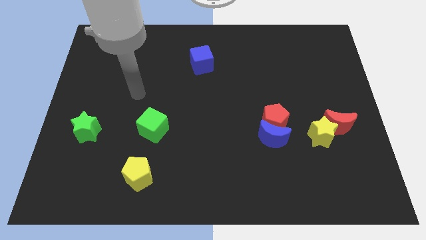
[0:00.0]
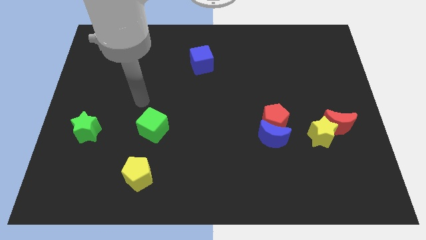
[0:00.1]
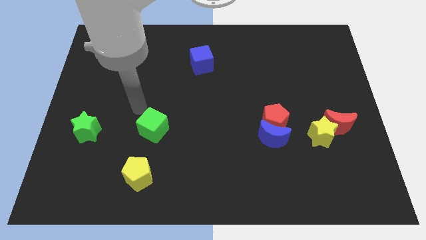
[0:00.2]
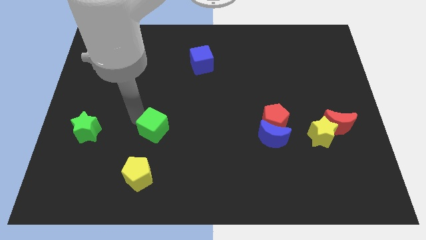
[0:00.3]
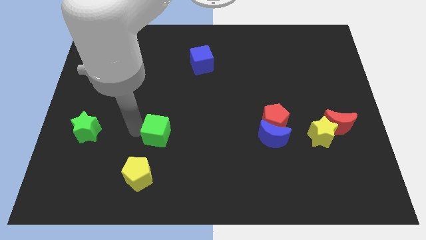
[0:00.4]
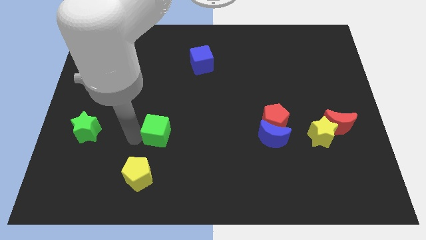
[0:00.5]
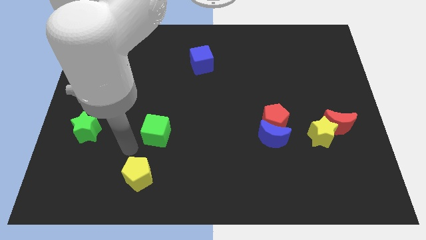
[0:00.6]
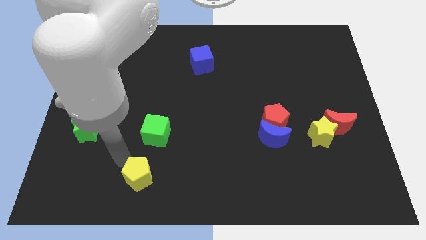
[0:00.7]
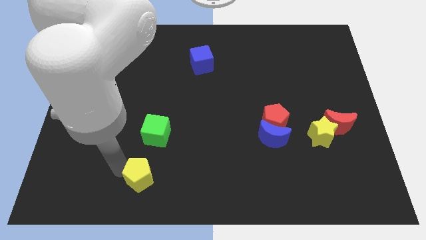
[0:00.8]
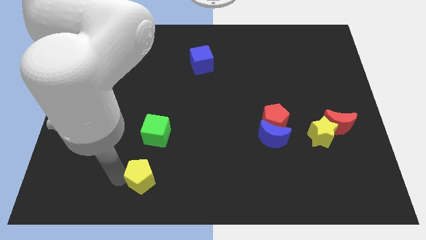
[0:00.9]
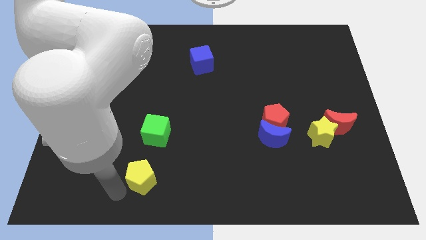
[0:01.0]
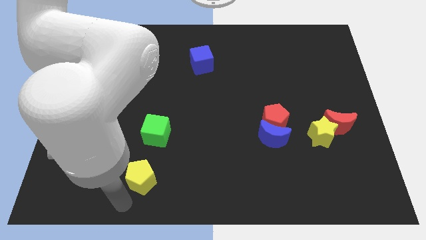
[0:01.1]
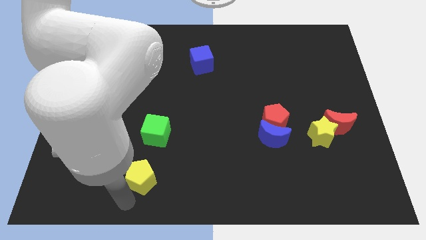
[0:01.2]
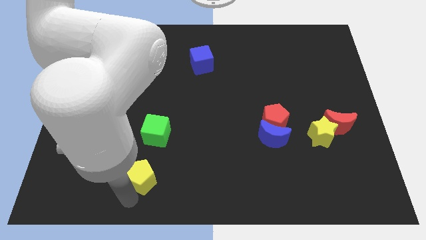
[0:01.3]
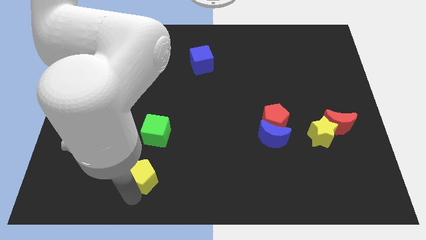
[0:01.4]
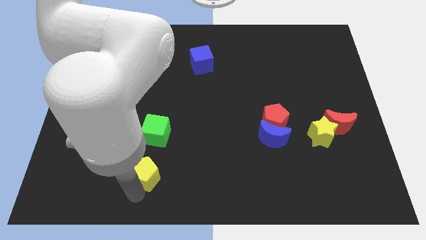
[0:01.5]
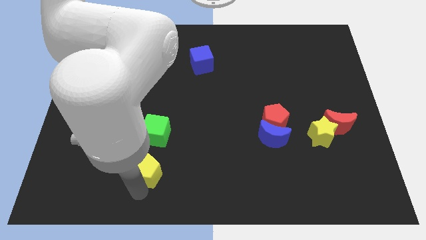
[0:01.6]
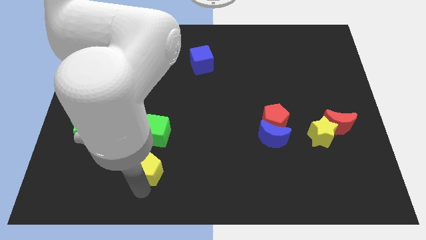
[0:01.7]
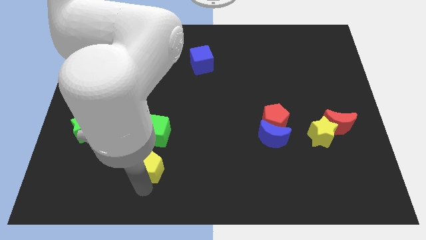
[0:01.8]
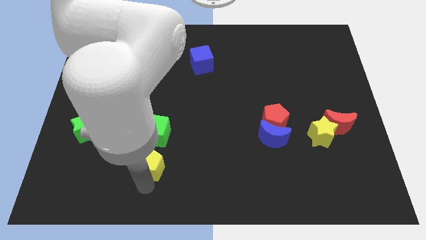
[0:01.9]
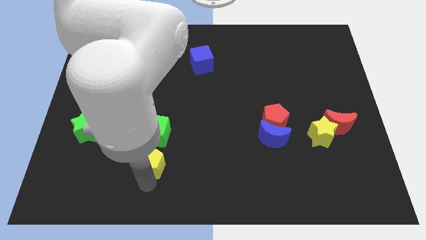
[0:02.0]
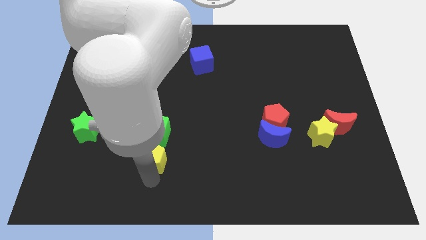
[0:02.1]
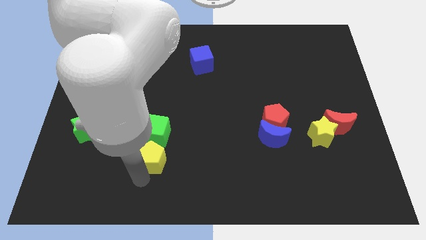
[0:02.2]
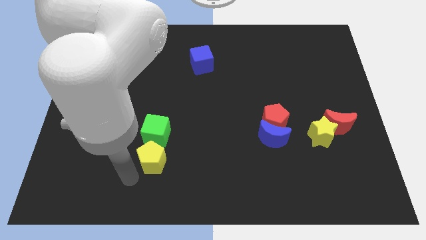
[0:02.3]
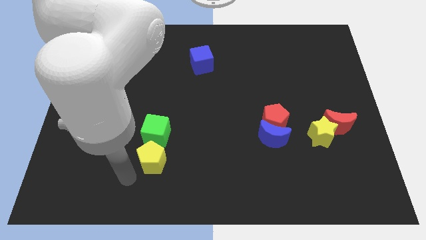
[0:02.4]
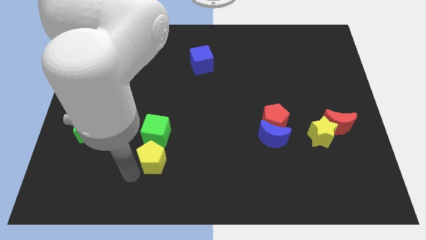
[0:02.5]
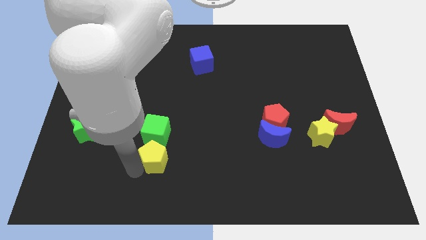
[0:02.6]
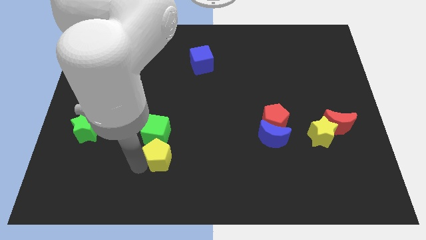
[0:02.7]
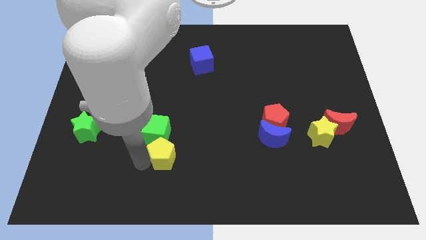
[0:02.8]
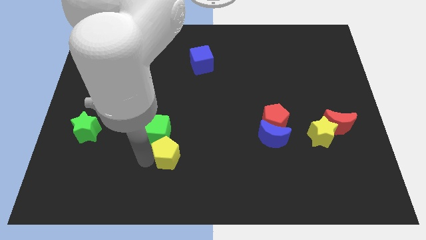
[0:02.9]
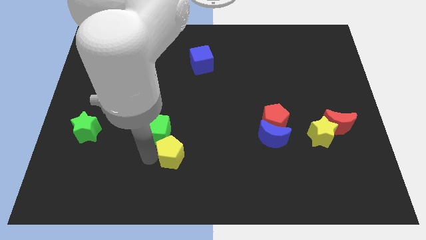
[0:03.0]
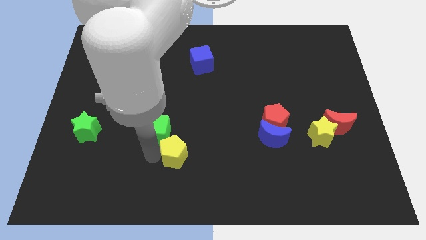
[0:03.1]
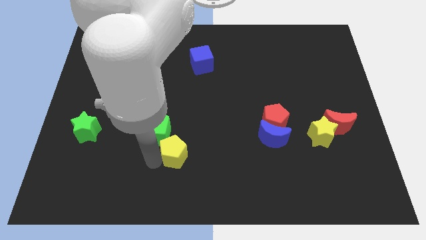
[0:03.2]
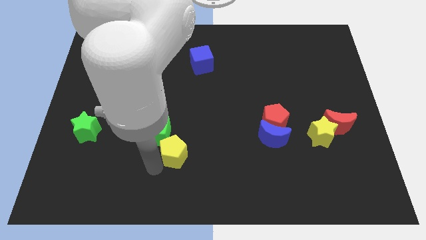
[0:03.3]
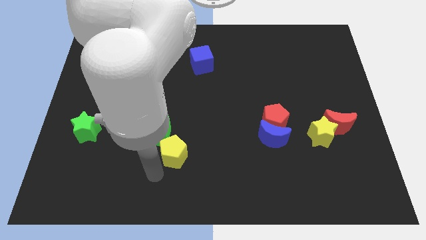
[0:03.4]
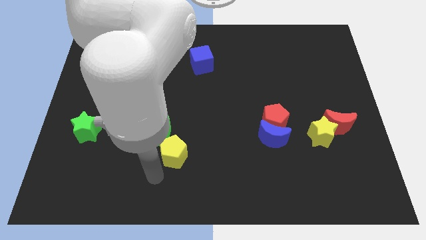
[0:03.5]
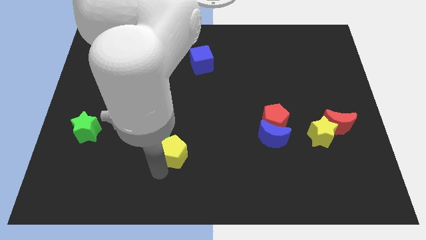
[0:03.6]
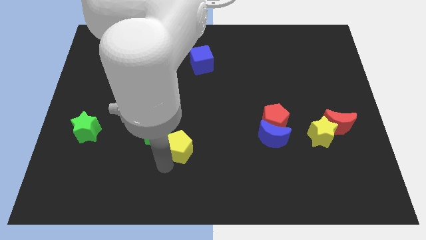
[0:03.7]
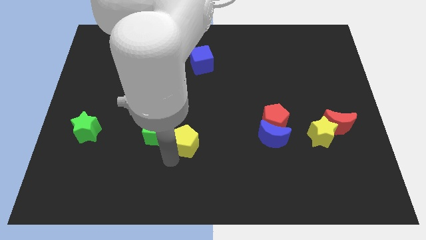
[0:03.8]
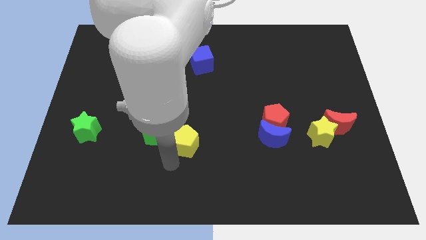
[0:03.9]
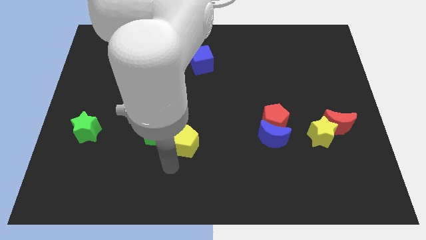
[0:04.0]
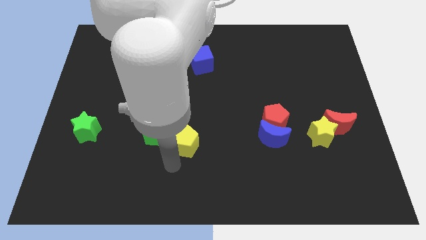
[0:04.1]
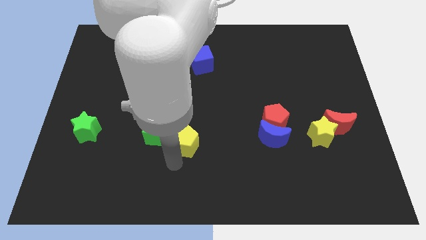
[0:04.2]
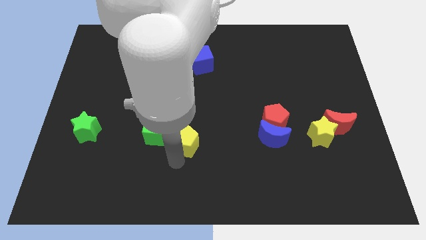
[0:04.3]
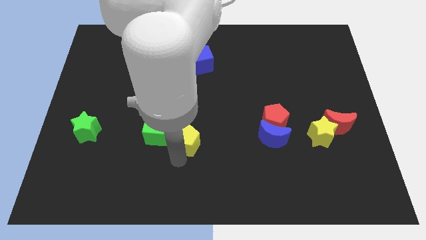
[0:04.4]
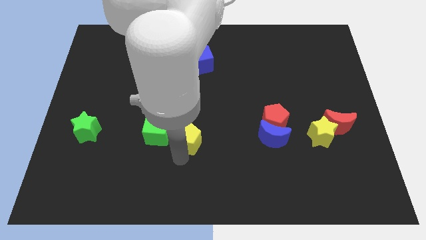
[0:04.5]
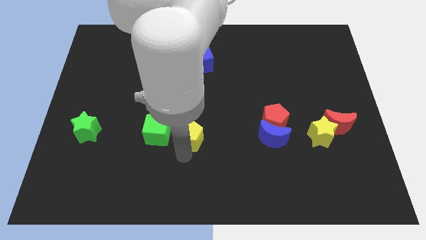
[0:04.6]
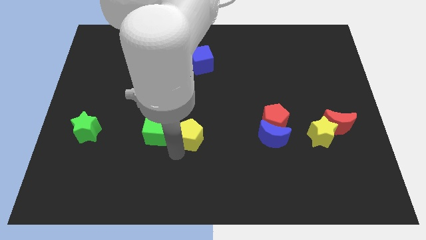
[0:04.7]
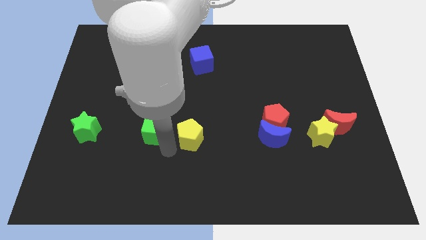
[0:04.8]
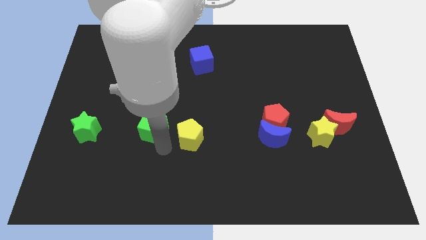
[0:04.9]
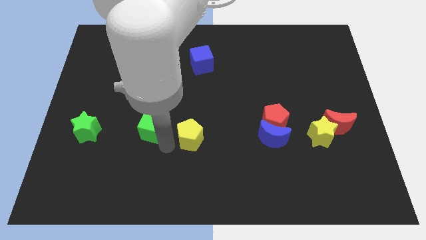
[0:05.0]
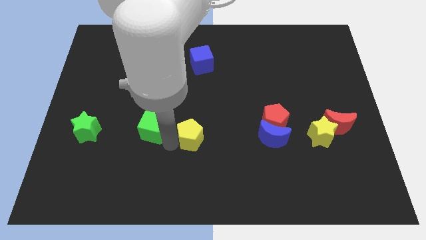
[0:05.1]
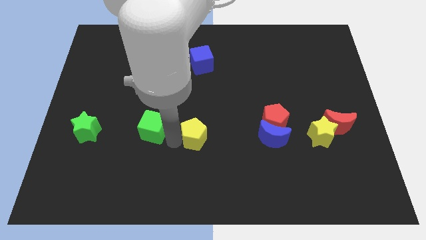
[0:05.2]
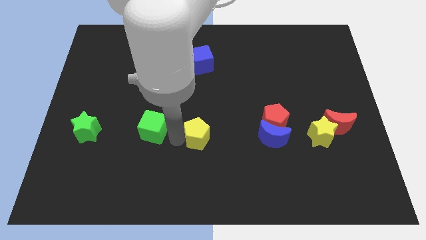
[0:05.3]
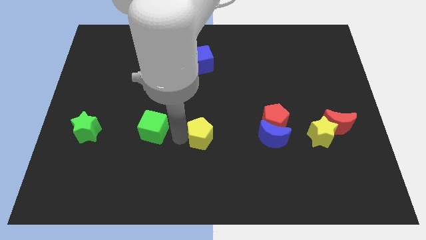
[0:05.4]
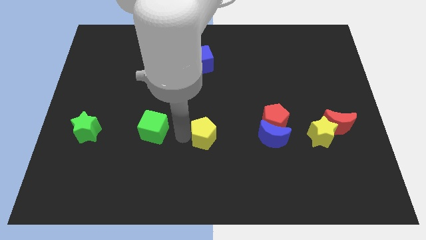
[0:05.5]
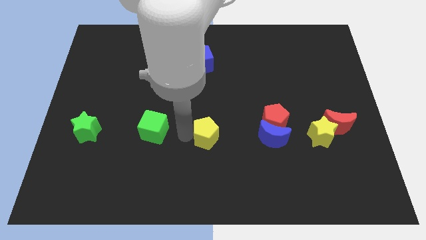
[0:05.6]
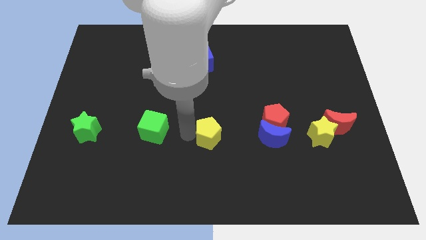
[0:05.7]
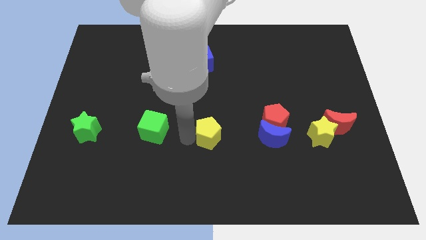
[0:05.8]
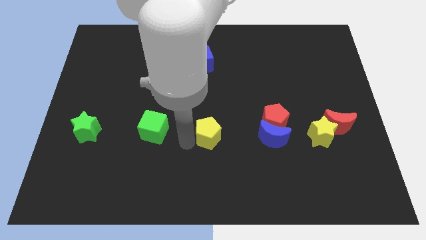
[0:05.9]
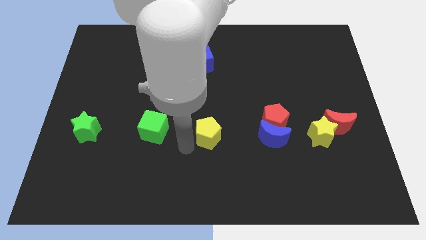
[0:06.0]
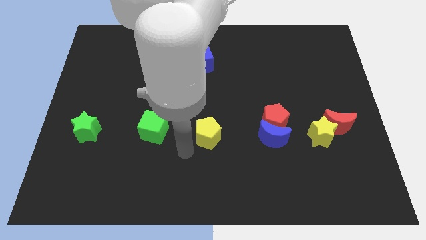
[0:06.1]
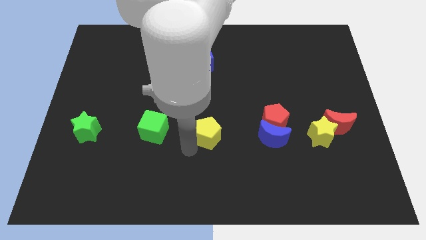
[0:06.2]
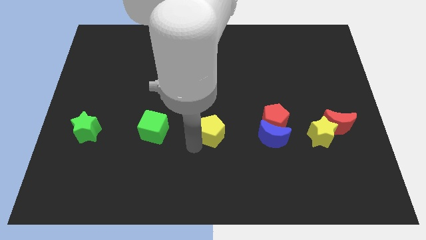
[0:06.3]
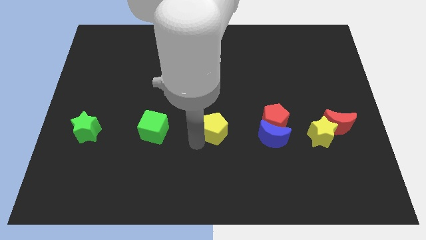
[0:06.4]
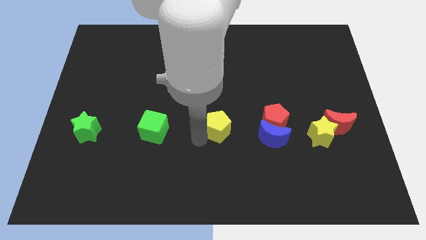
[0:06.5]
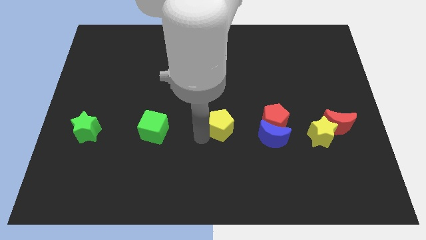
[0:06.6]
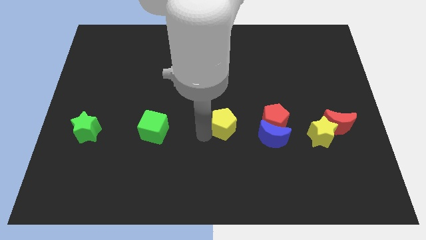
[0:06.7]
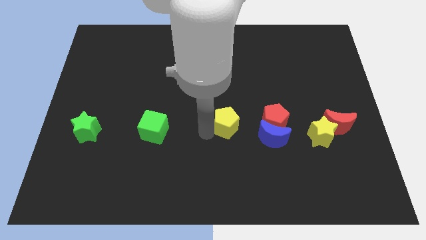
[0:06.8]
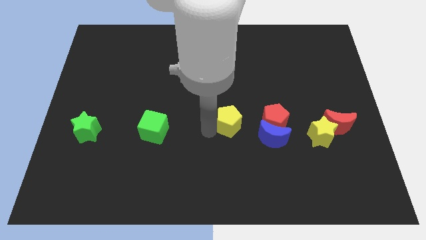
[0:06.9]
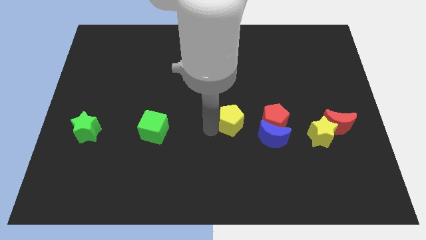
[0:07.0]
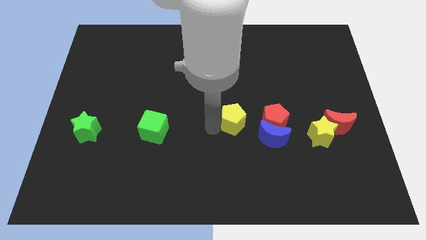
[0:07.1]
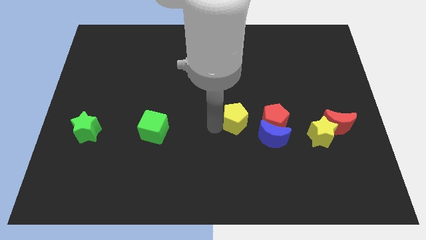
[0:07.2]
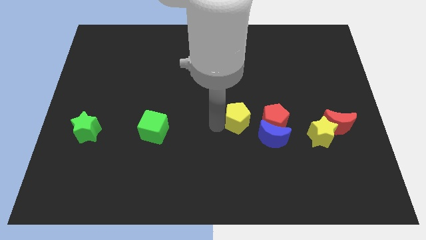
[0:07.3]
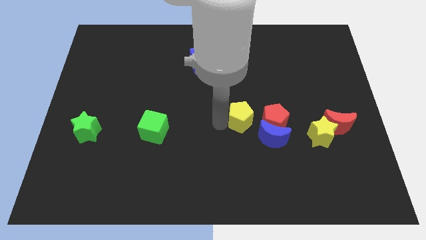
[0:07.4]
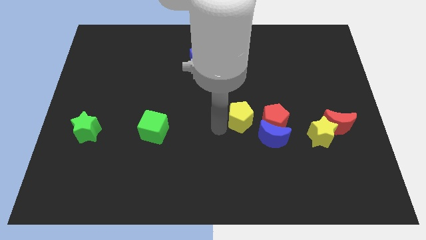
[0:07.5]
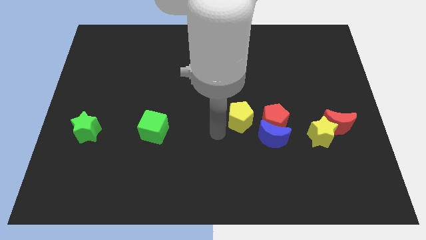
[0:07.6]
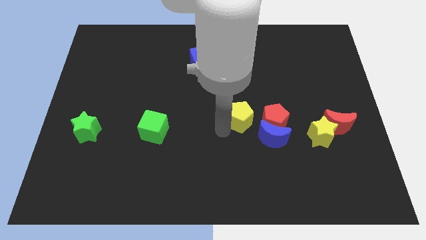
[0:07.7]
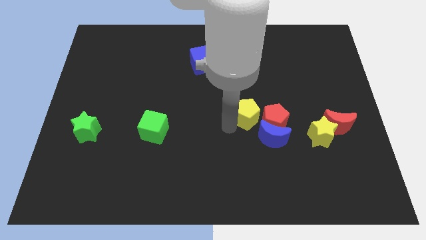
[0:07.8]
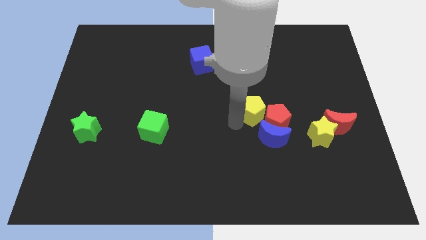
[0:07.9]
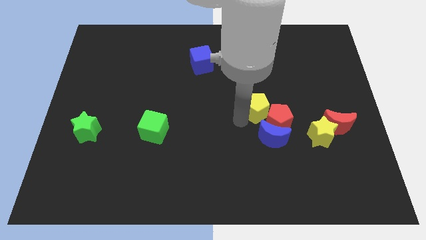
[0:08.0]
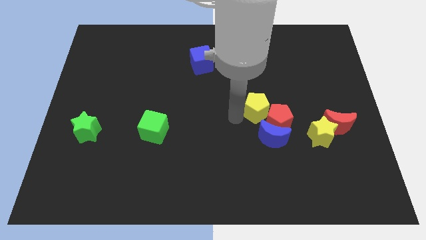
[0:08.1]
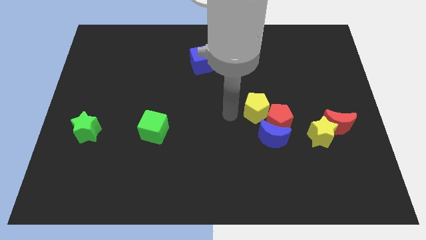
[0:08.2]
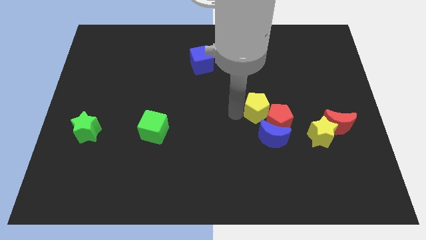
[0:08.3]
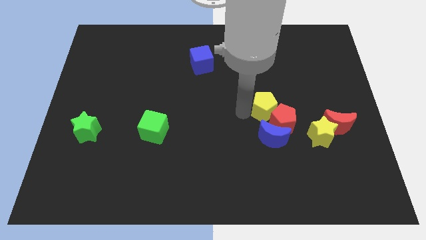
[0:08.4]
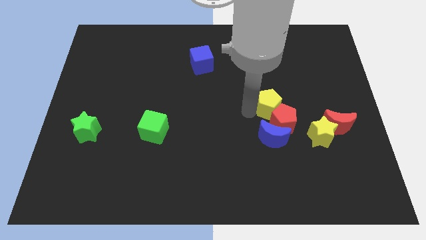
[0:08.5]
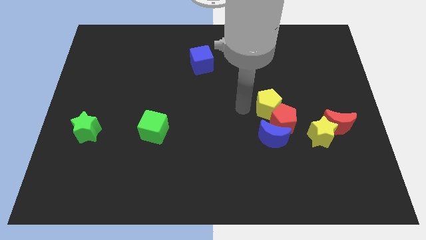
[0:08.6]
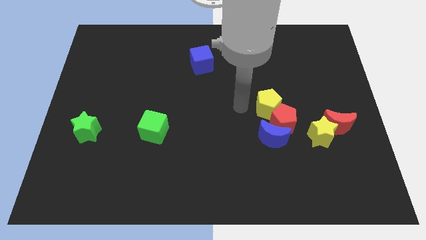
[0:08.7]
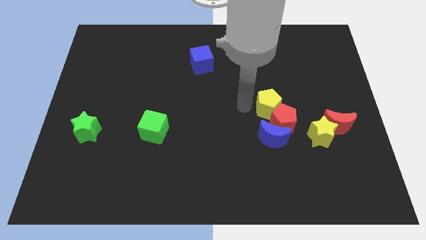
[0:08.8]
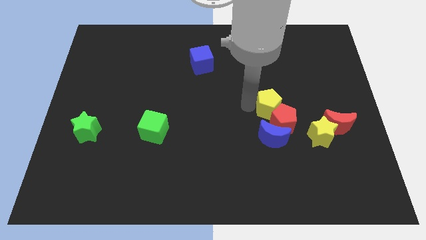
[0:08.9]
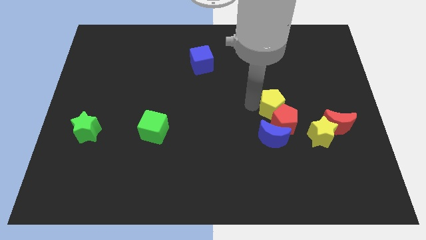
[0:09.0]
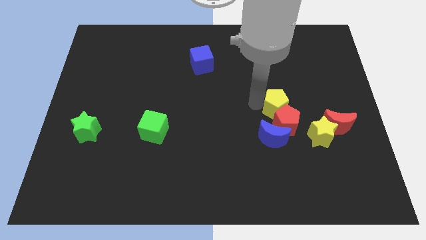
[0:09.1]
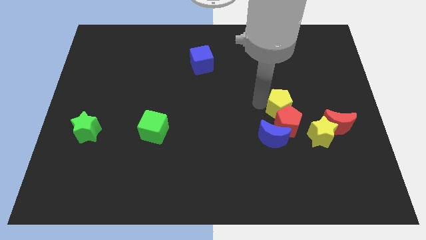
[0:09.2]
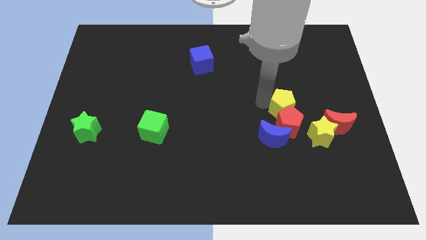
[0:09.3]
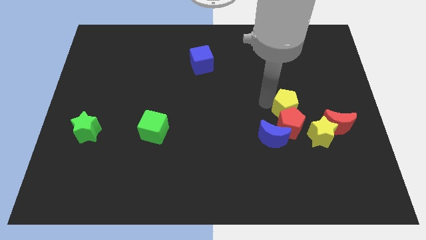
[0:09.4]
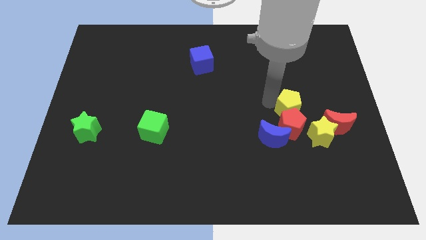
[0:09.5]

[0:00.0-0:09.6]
move the yellow pentagon to the top left side of the red moon
